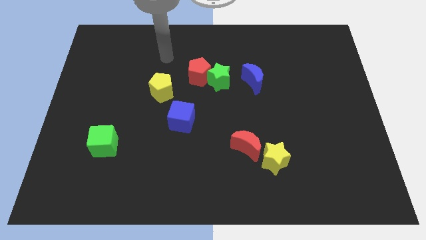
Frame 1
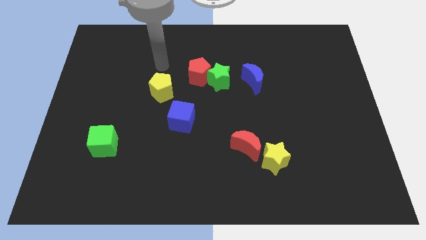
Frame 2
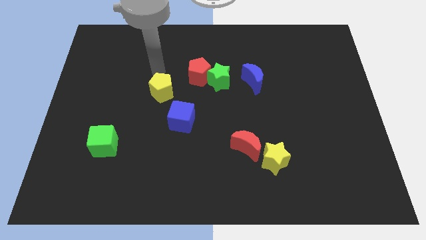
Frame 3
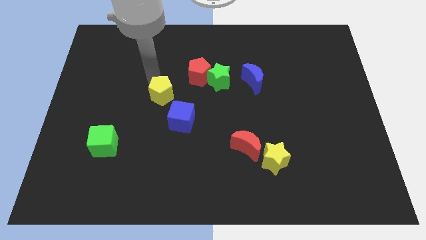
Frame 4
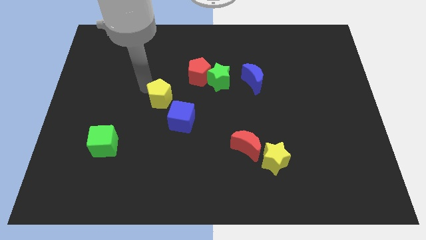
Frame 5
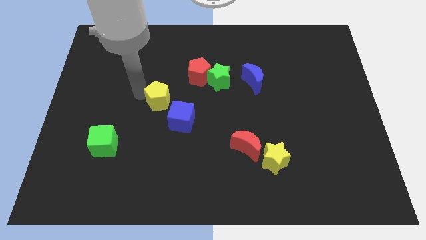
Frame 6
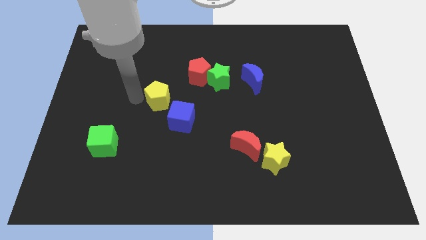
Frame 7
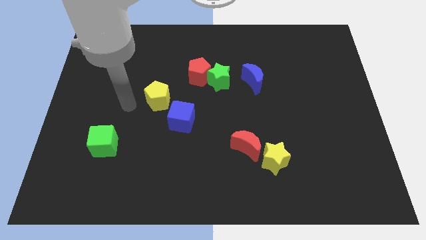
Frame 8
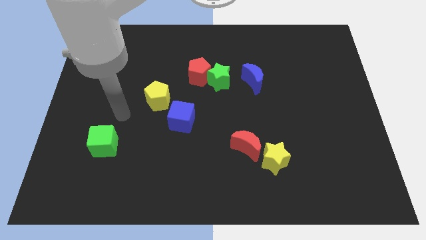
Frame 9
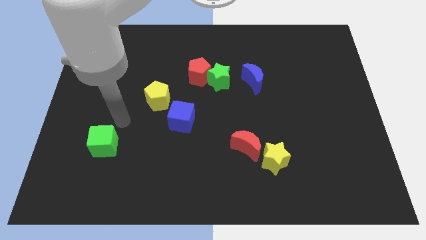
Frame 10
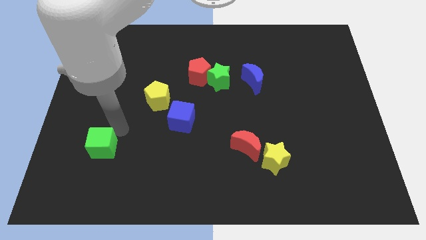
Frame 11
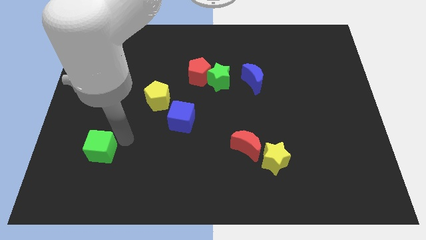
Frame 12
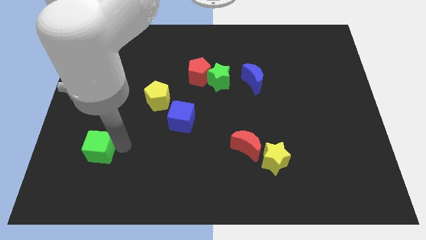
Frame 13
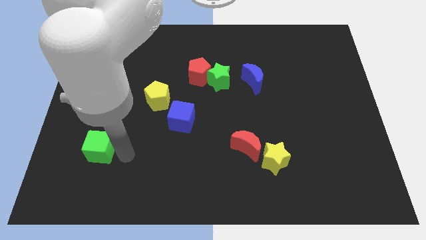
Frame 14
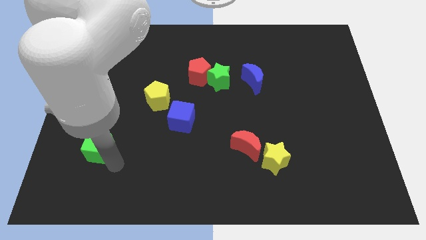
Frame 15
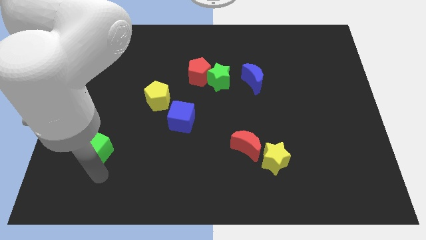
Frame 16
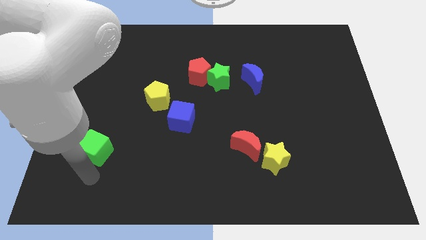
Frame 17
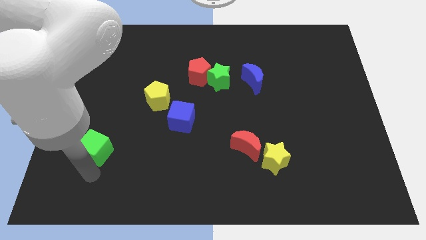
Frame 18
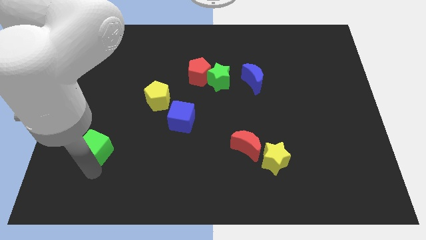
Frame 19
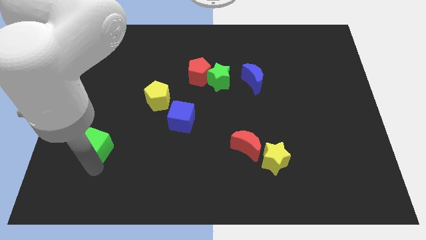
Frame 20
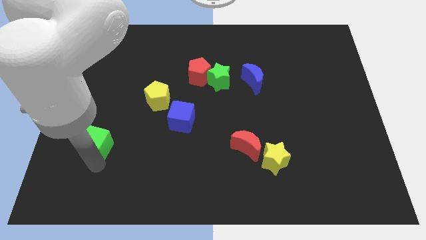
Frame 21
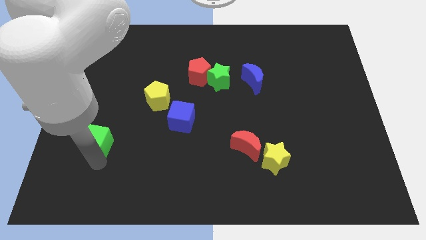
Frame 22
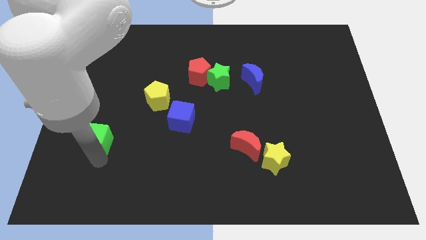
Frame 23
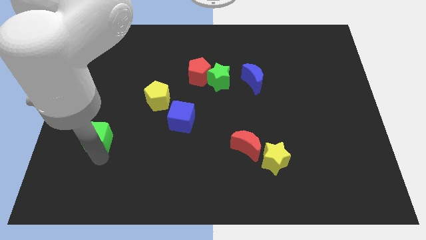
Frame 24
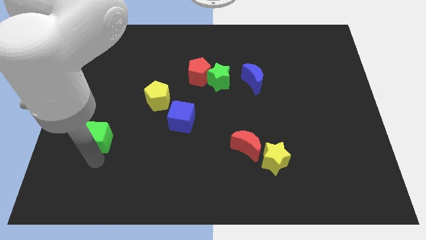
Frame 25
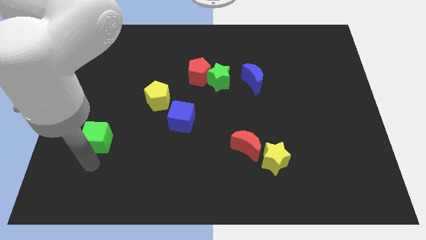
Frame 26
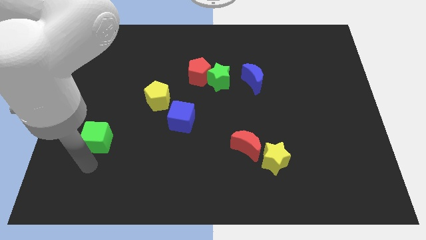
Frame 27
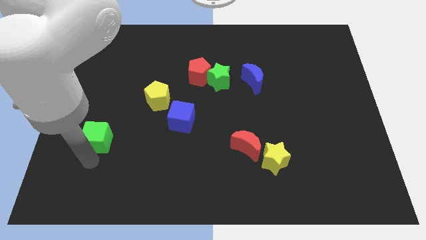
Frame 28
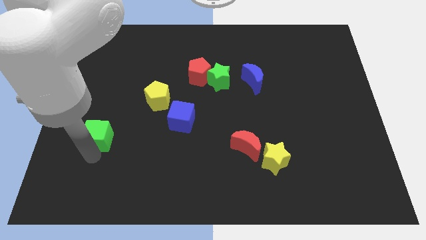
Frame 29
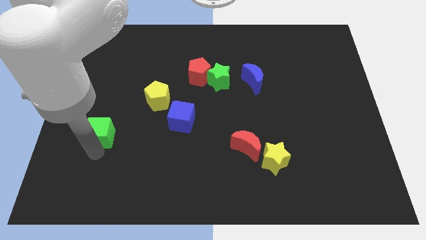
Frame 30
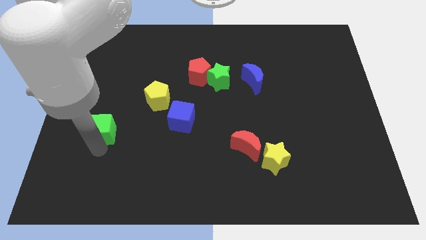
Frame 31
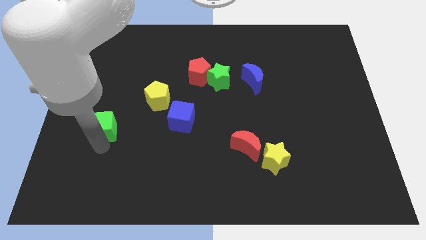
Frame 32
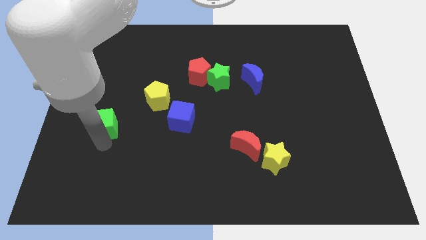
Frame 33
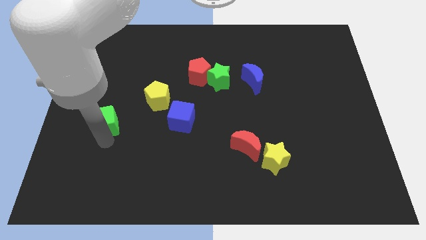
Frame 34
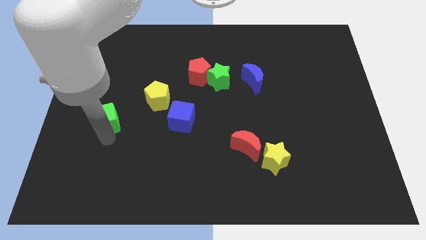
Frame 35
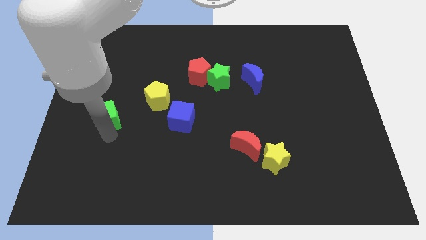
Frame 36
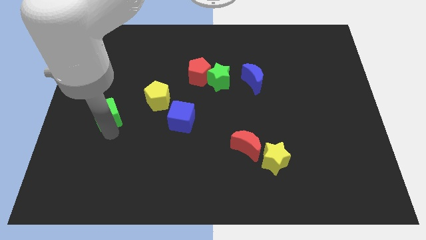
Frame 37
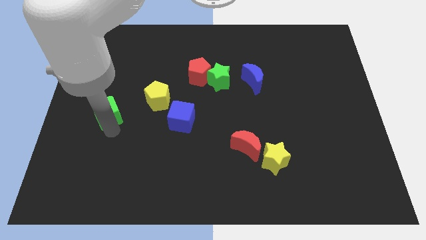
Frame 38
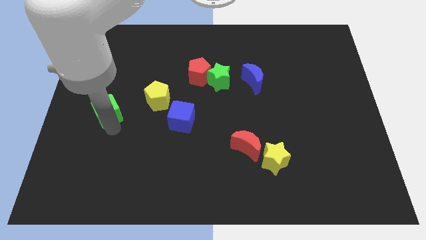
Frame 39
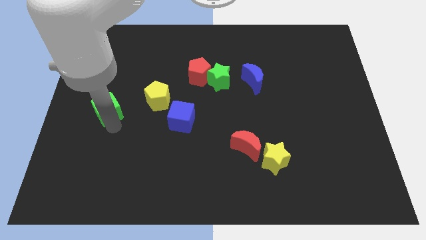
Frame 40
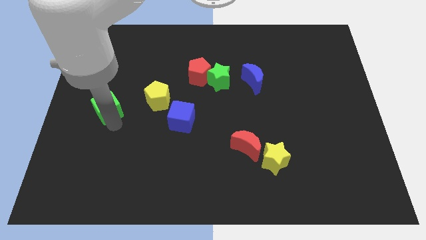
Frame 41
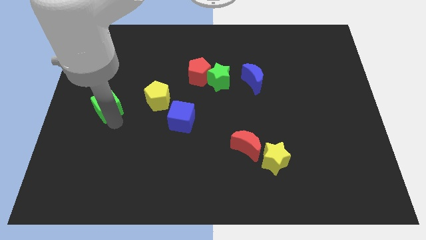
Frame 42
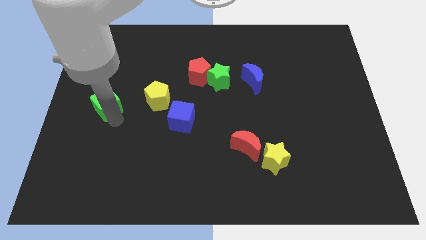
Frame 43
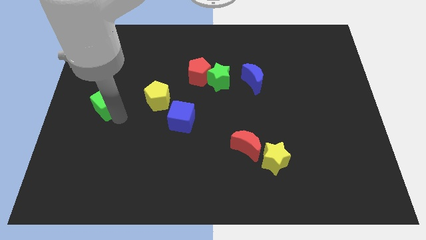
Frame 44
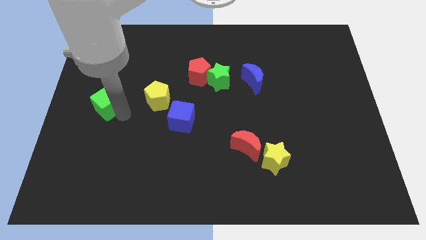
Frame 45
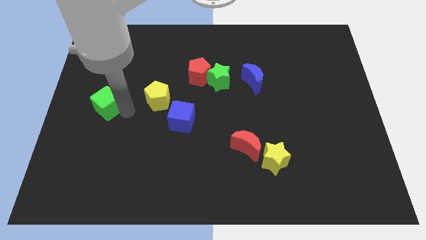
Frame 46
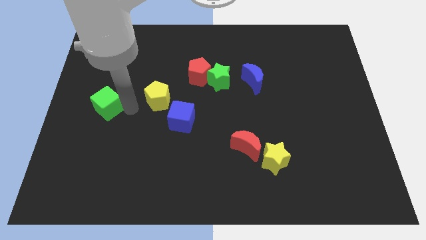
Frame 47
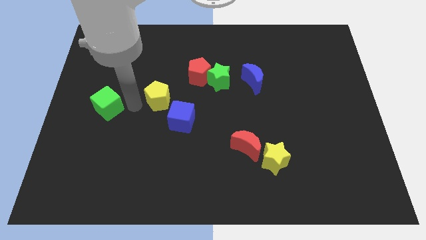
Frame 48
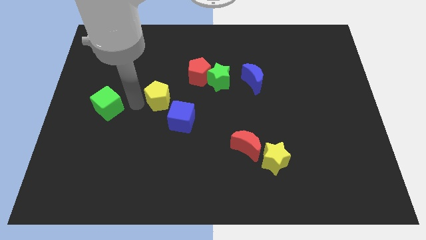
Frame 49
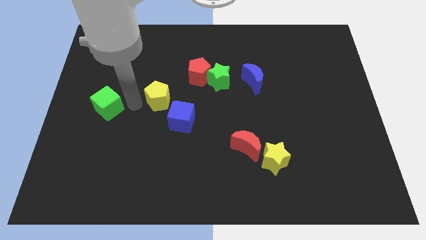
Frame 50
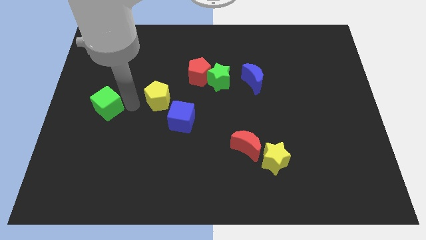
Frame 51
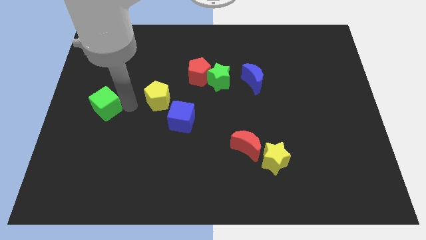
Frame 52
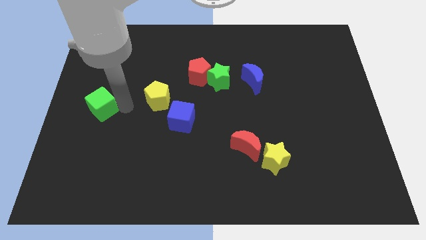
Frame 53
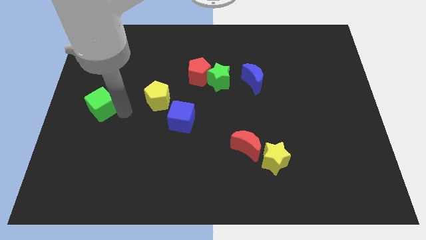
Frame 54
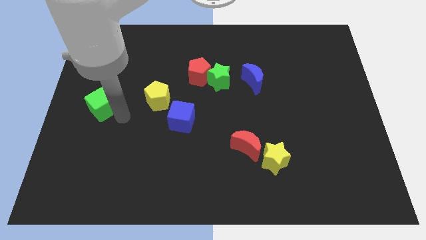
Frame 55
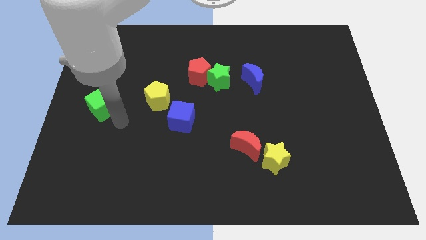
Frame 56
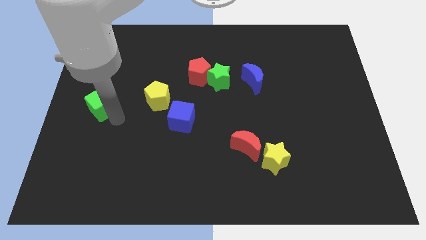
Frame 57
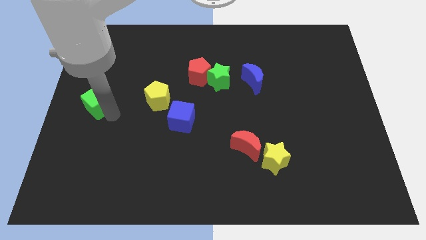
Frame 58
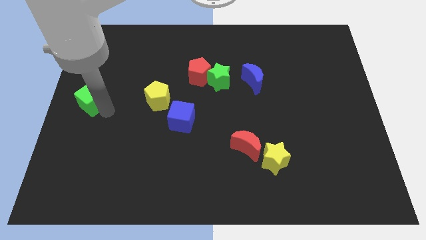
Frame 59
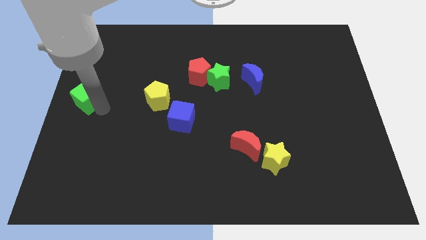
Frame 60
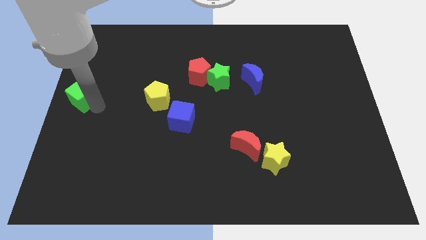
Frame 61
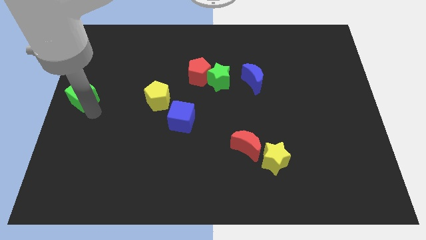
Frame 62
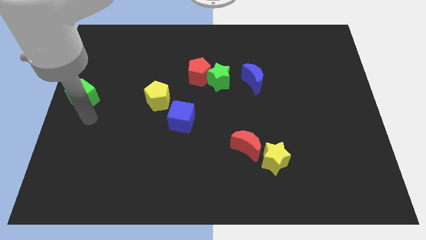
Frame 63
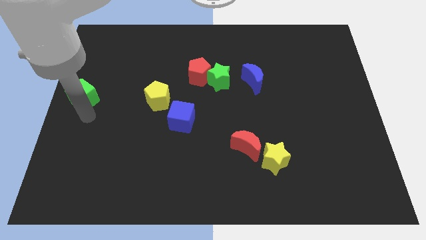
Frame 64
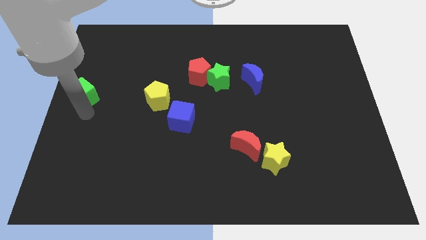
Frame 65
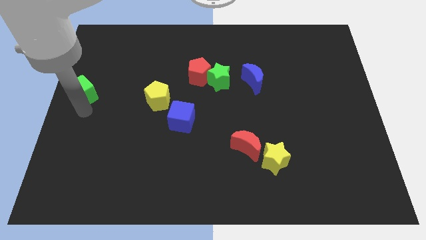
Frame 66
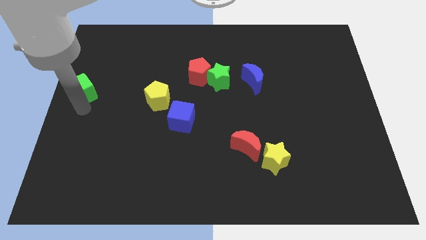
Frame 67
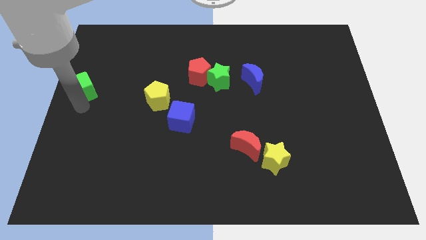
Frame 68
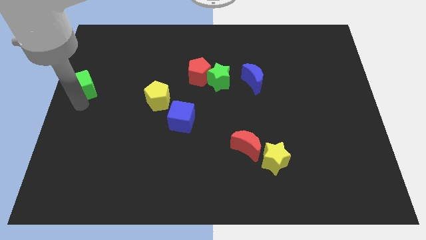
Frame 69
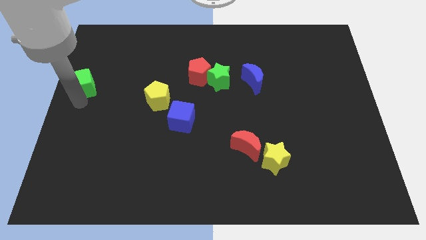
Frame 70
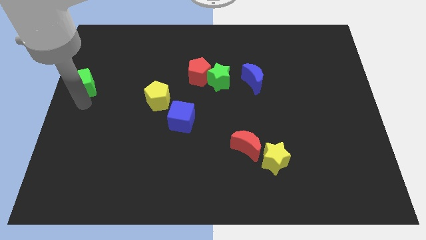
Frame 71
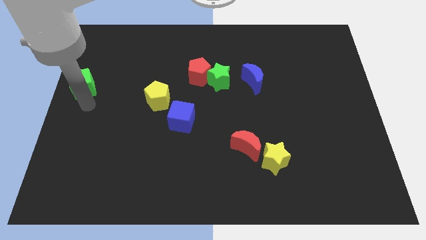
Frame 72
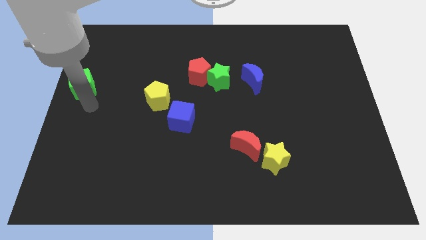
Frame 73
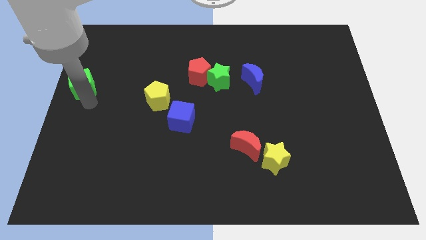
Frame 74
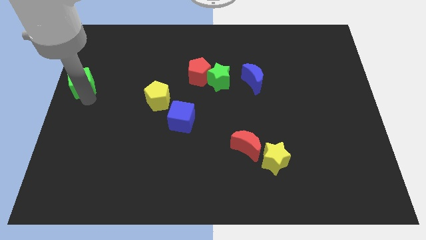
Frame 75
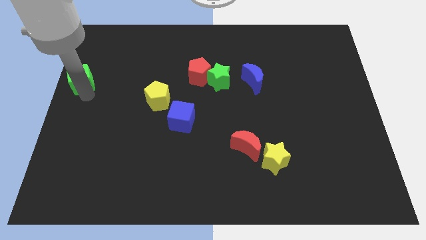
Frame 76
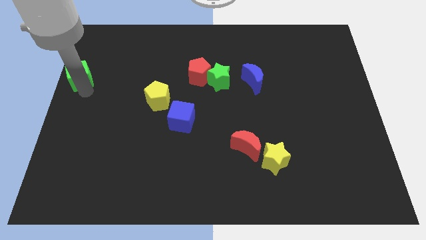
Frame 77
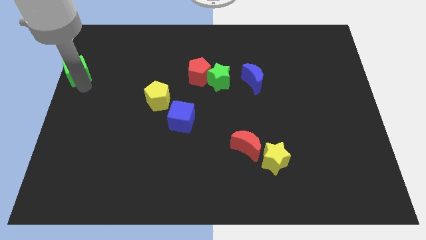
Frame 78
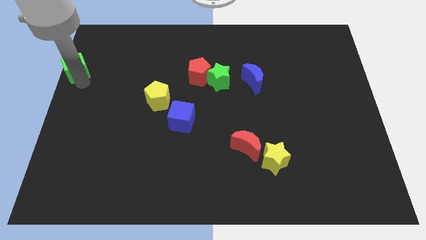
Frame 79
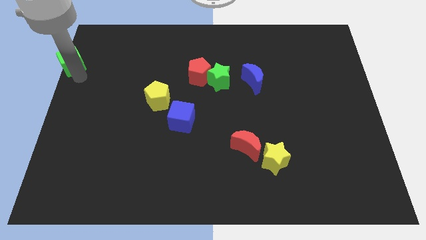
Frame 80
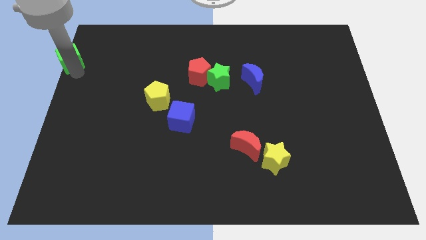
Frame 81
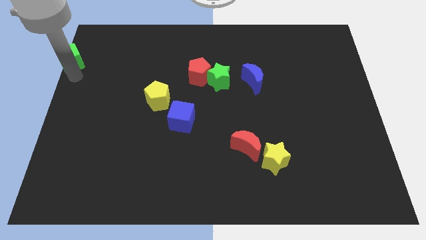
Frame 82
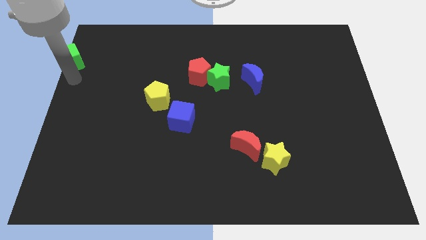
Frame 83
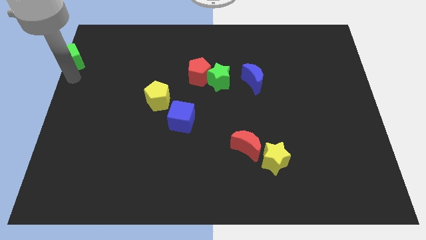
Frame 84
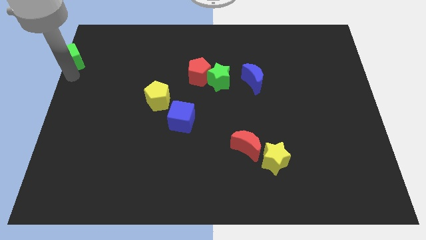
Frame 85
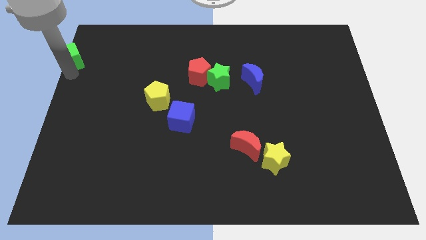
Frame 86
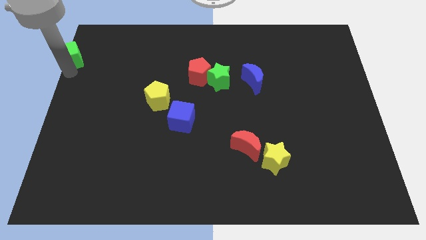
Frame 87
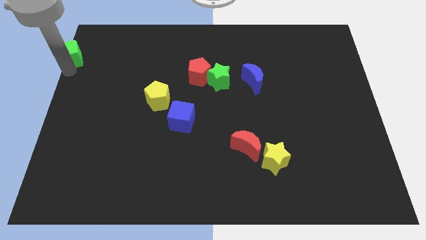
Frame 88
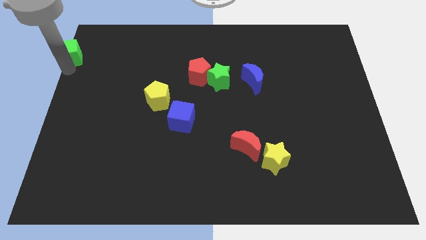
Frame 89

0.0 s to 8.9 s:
push the green cube to the top left of the board
